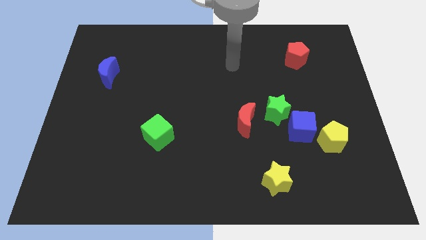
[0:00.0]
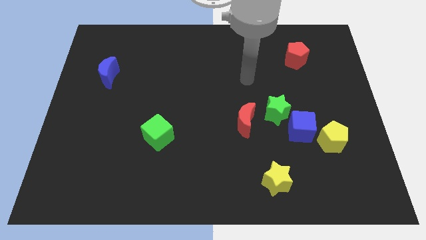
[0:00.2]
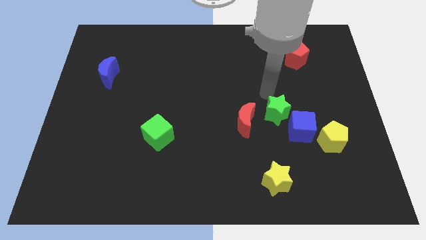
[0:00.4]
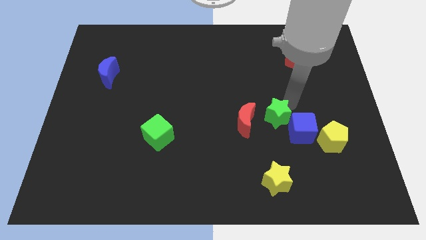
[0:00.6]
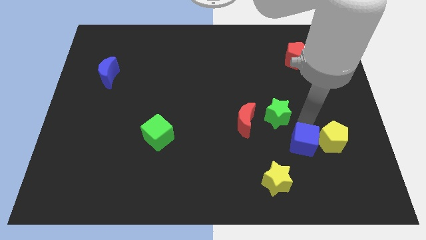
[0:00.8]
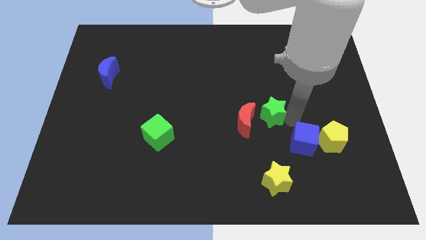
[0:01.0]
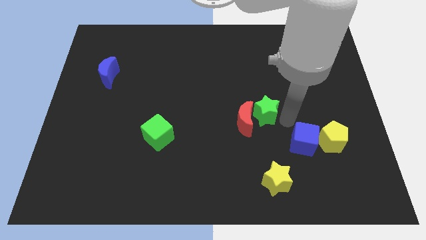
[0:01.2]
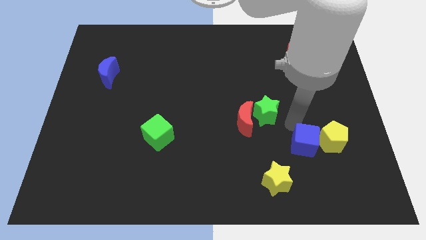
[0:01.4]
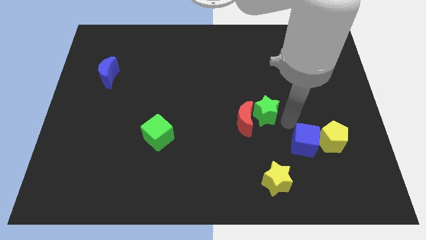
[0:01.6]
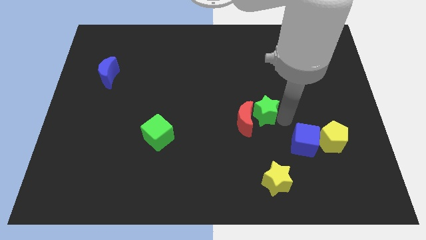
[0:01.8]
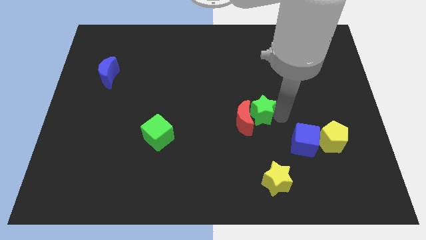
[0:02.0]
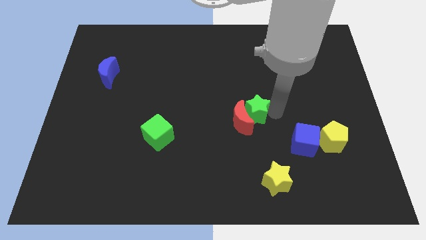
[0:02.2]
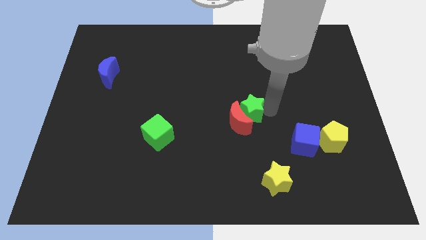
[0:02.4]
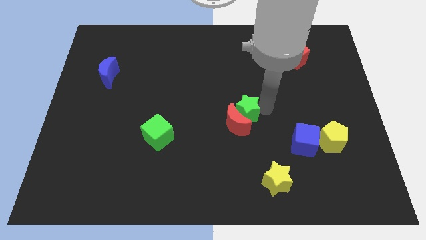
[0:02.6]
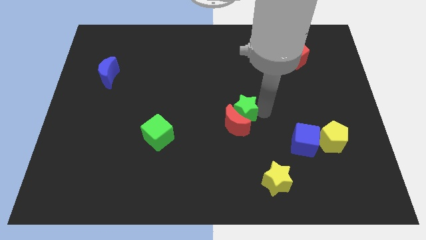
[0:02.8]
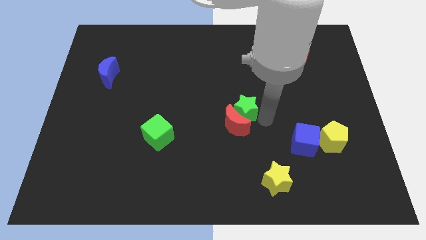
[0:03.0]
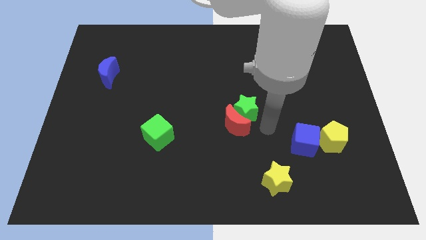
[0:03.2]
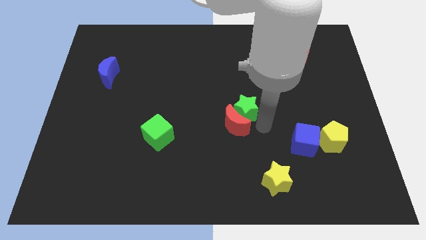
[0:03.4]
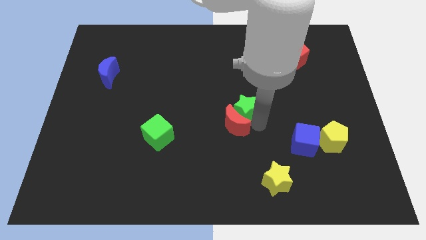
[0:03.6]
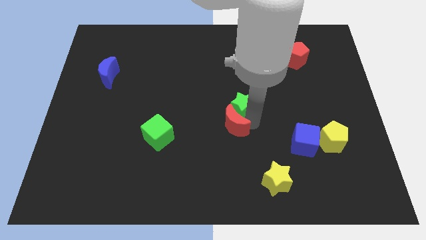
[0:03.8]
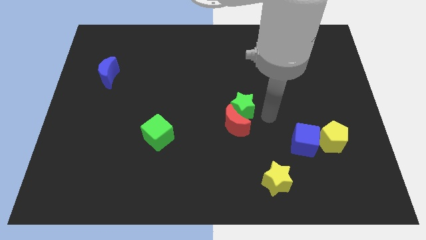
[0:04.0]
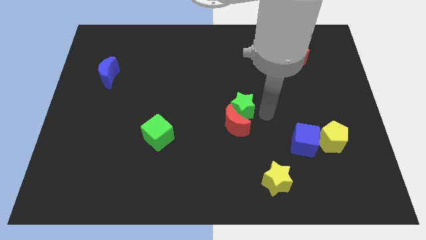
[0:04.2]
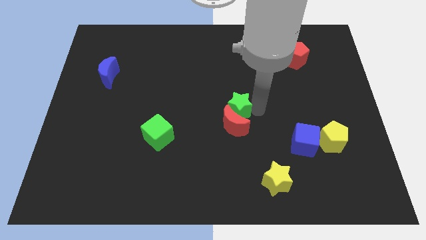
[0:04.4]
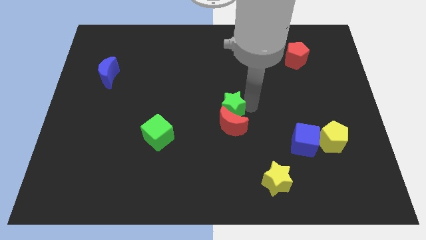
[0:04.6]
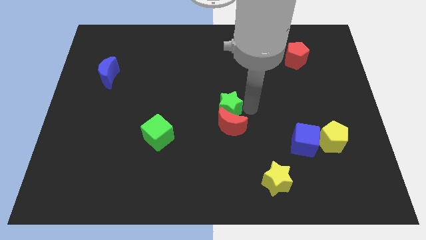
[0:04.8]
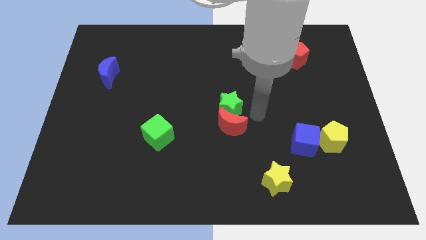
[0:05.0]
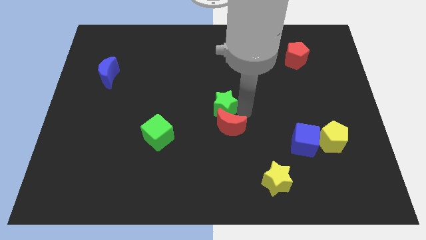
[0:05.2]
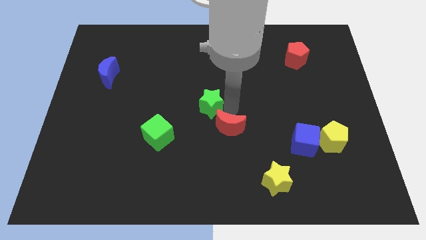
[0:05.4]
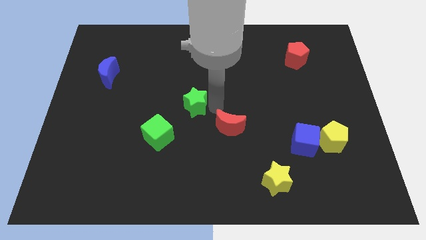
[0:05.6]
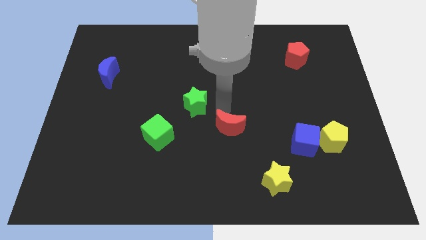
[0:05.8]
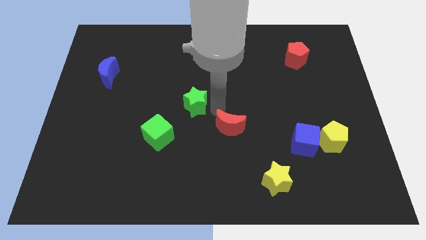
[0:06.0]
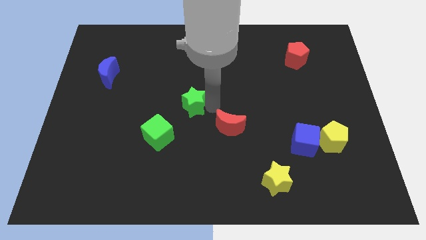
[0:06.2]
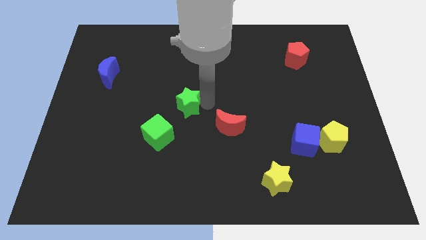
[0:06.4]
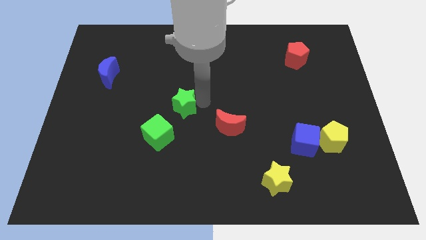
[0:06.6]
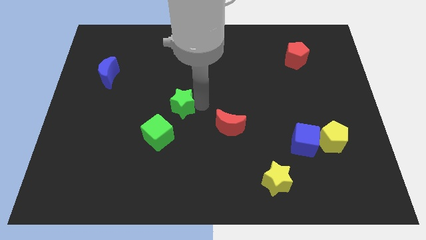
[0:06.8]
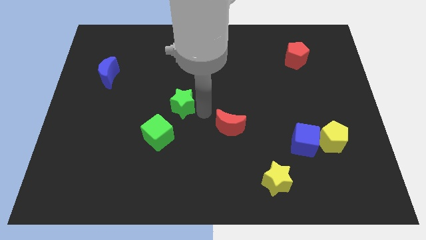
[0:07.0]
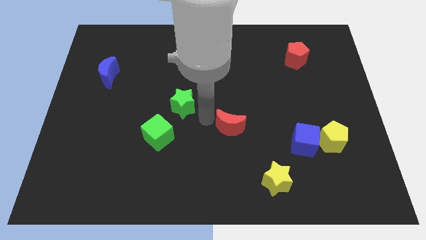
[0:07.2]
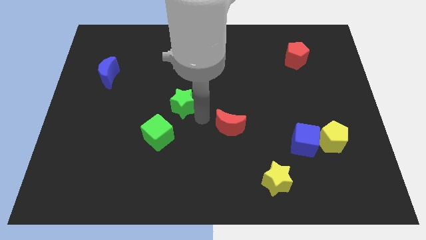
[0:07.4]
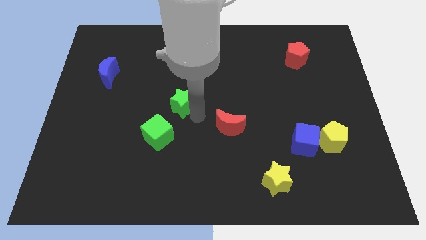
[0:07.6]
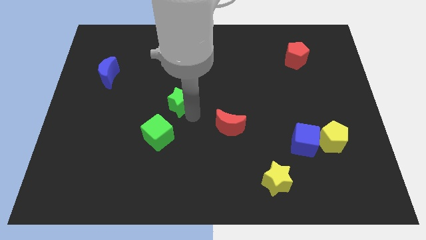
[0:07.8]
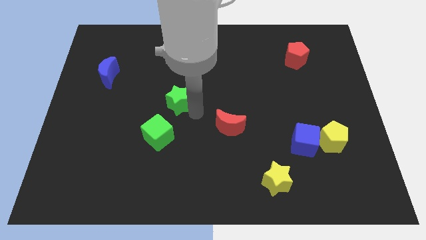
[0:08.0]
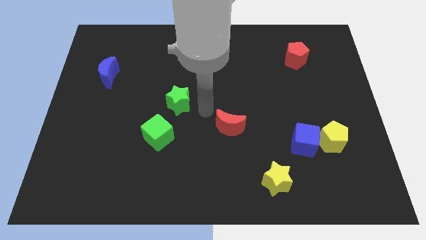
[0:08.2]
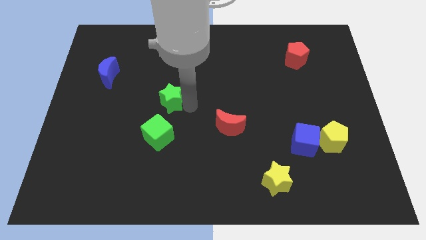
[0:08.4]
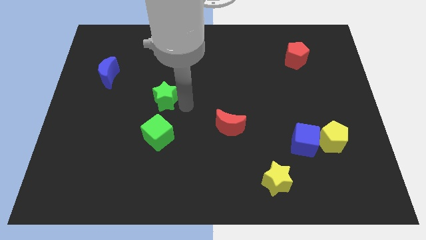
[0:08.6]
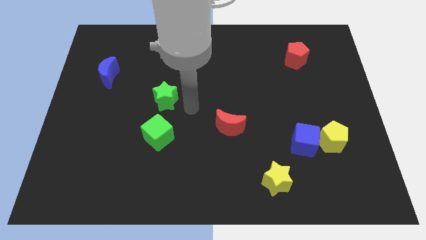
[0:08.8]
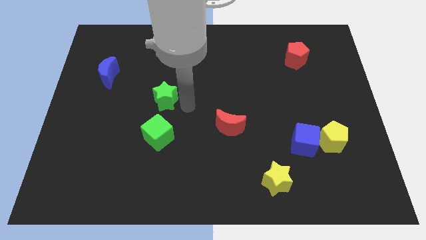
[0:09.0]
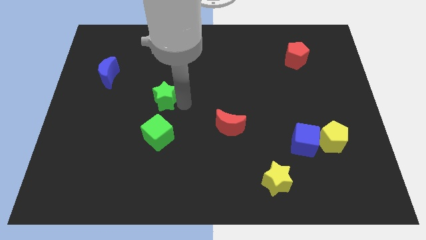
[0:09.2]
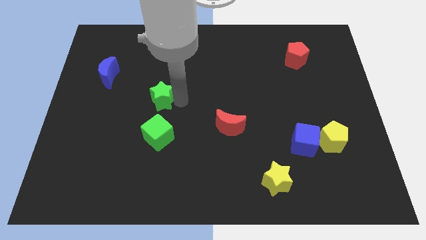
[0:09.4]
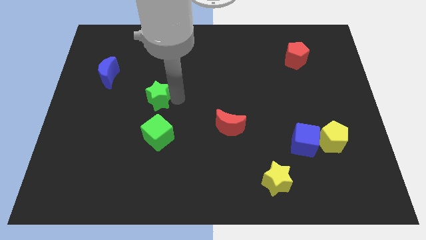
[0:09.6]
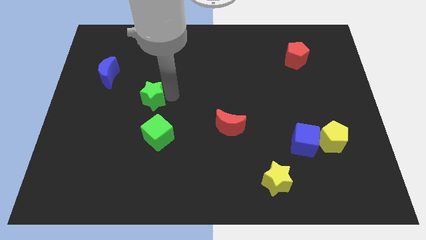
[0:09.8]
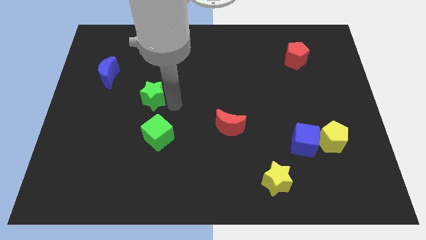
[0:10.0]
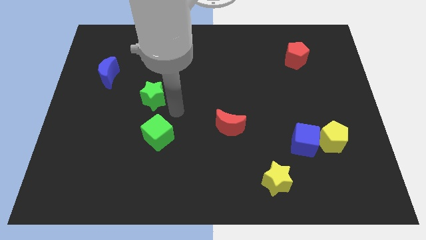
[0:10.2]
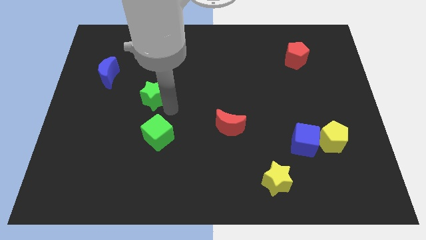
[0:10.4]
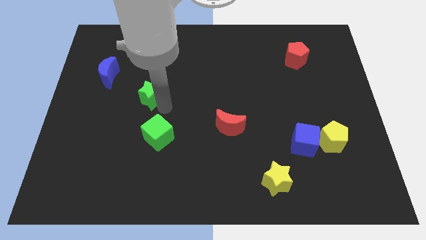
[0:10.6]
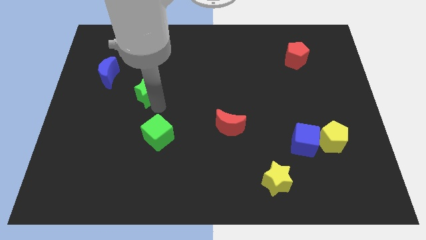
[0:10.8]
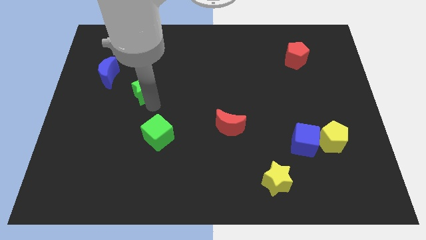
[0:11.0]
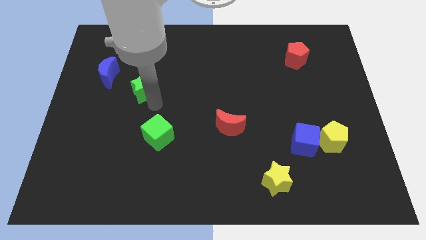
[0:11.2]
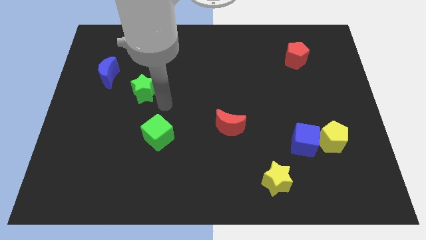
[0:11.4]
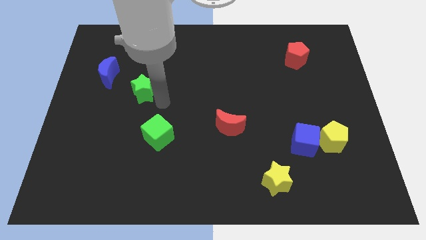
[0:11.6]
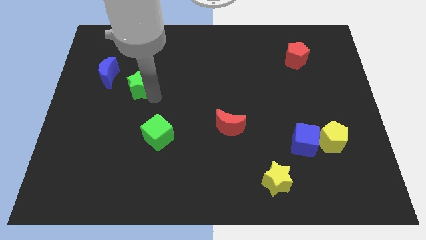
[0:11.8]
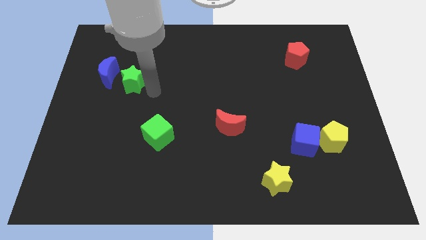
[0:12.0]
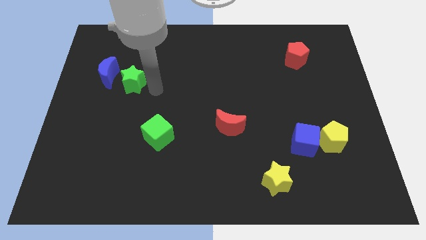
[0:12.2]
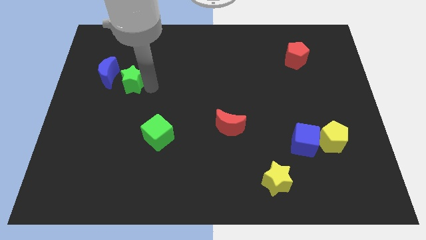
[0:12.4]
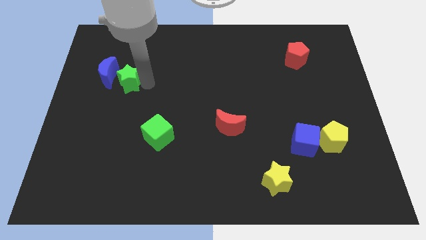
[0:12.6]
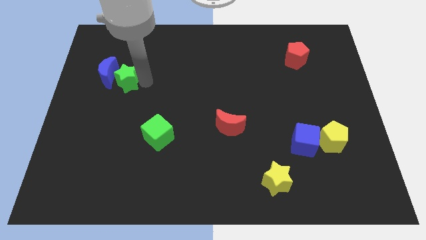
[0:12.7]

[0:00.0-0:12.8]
move the green star to the blue moon
